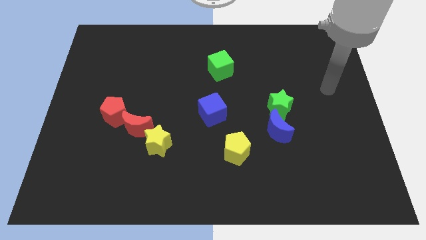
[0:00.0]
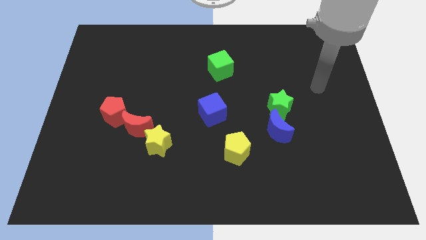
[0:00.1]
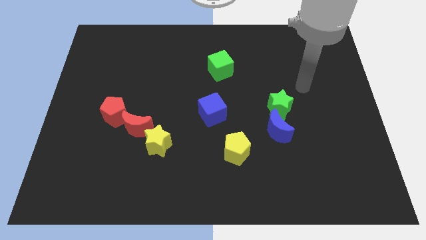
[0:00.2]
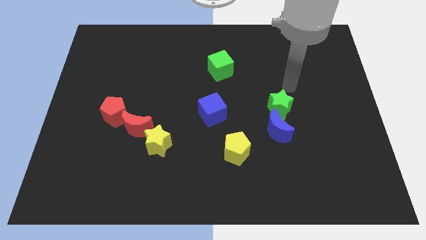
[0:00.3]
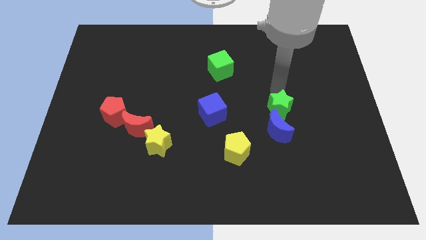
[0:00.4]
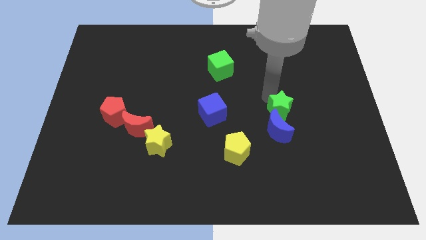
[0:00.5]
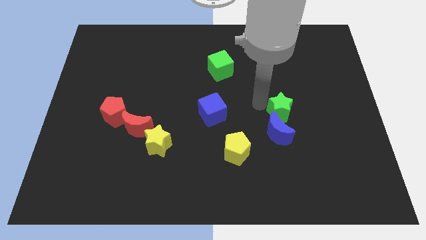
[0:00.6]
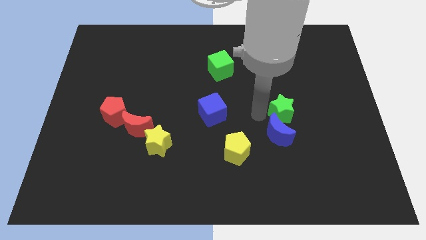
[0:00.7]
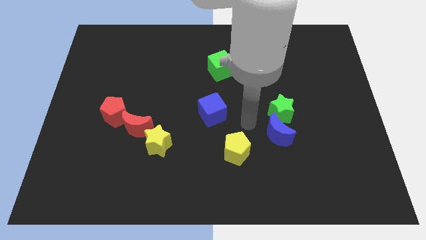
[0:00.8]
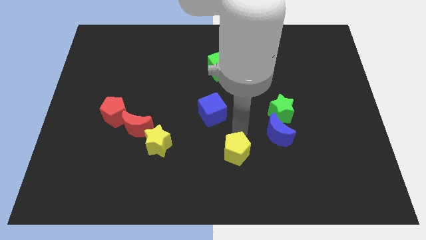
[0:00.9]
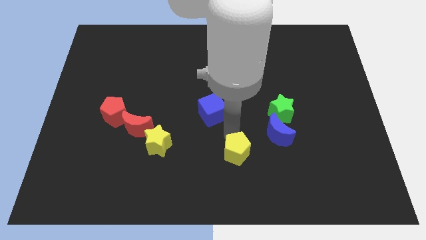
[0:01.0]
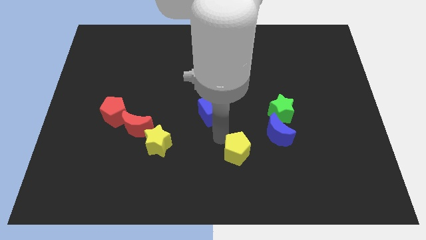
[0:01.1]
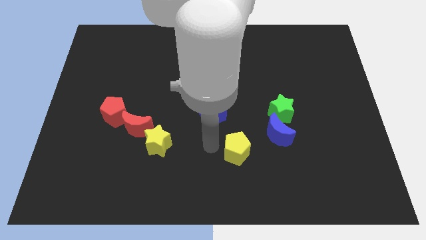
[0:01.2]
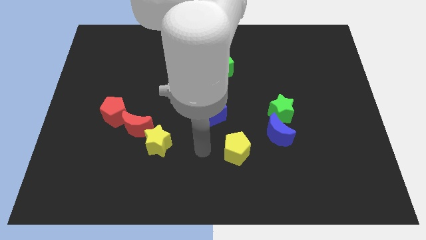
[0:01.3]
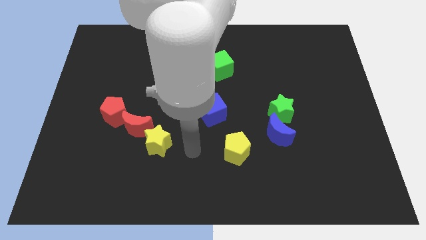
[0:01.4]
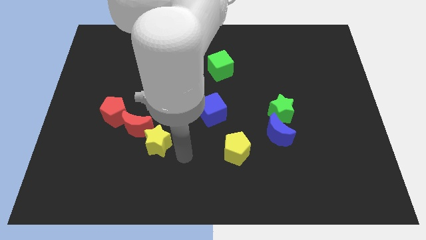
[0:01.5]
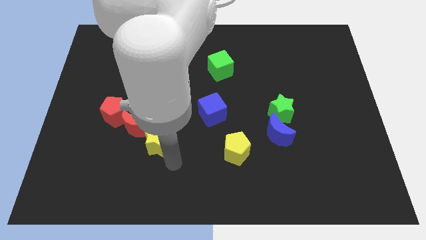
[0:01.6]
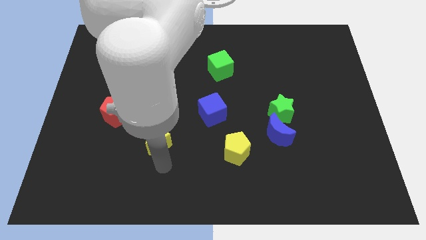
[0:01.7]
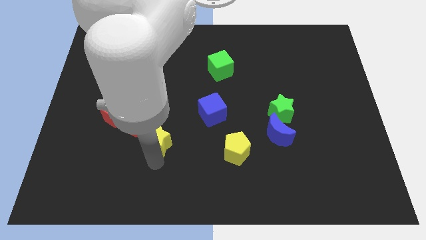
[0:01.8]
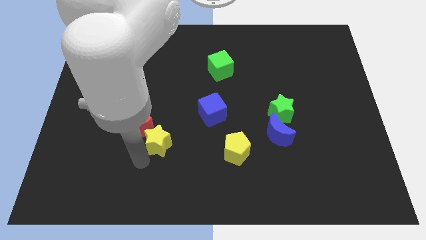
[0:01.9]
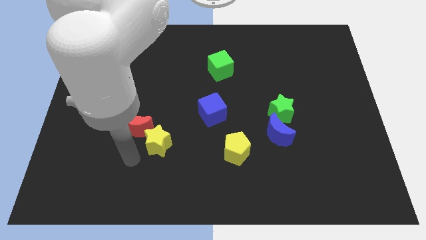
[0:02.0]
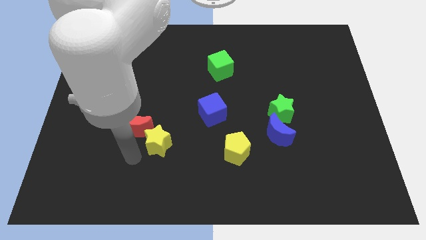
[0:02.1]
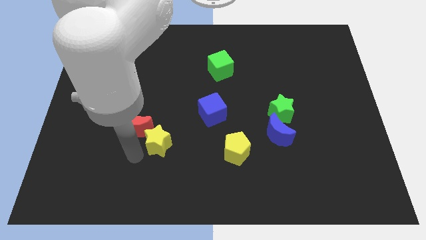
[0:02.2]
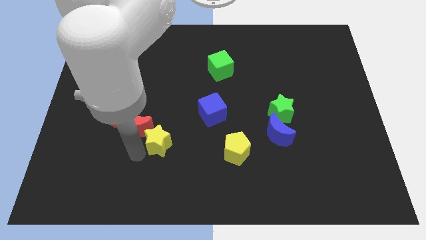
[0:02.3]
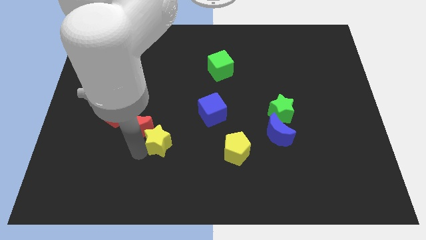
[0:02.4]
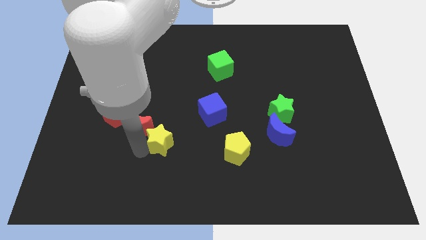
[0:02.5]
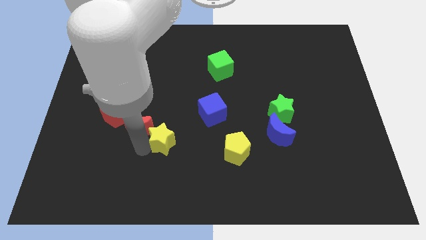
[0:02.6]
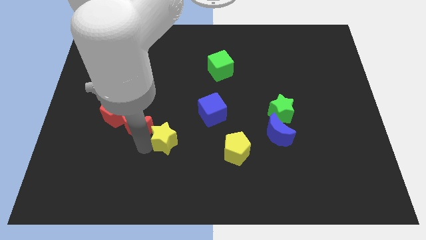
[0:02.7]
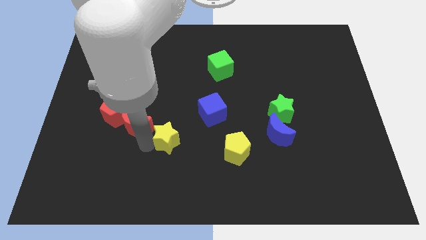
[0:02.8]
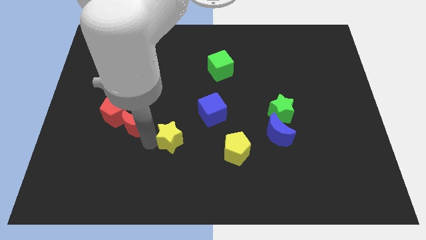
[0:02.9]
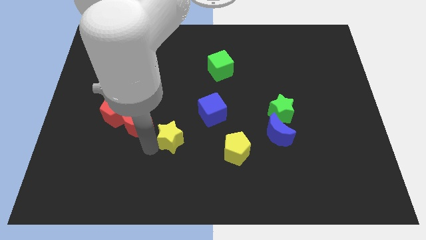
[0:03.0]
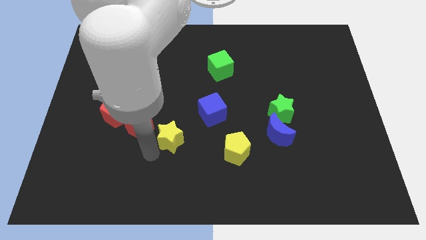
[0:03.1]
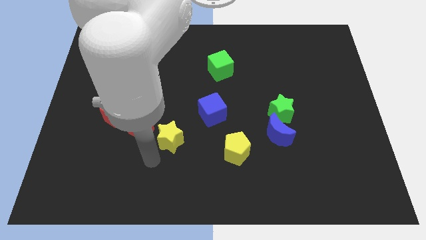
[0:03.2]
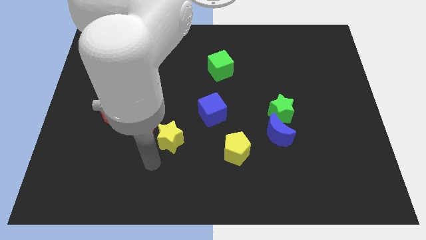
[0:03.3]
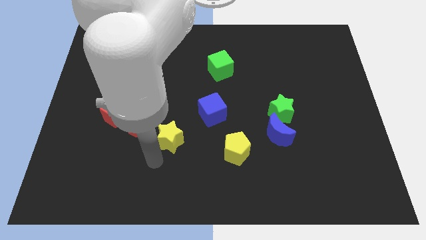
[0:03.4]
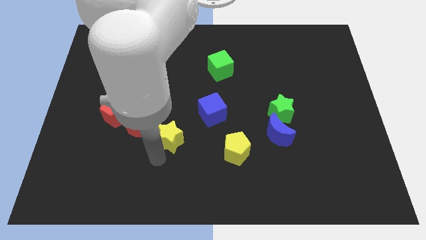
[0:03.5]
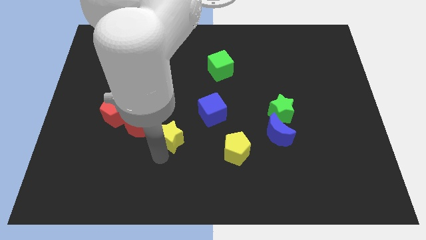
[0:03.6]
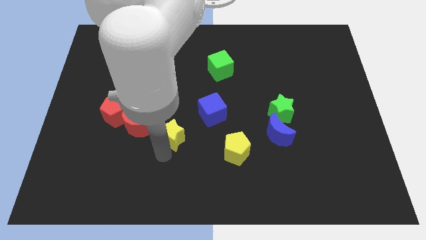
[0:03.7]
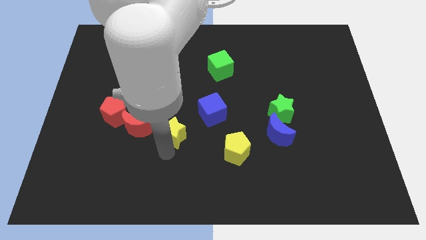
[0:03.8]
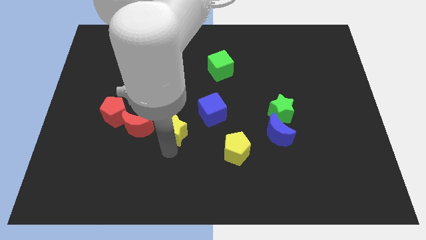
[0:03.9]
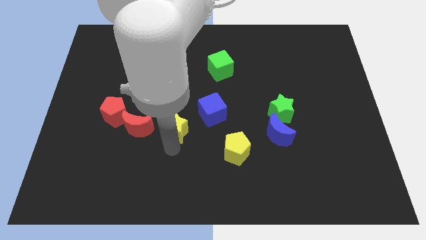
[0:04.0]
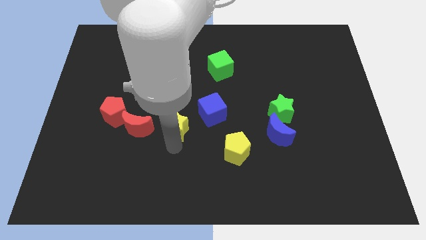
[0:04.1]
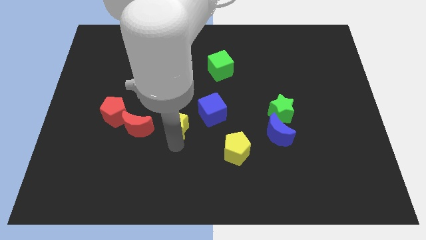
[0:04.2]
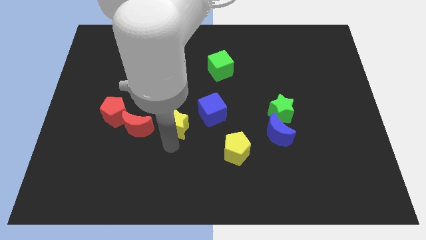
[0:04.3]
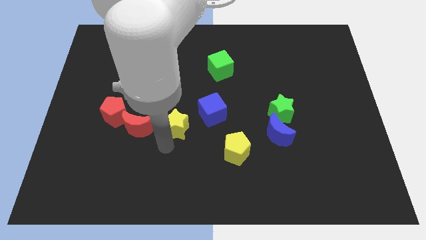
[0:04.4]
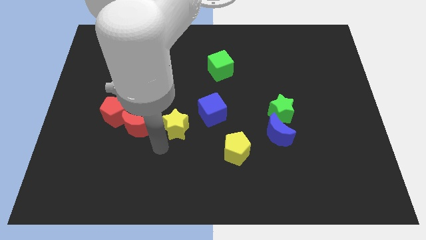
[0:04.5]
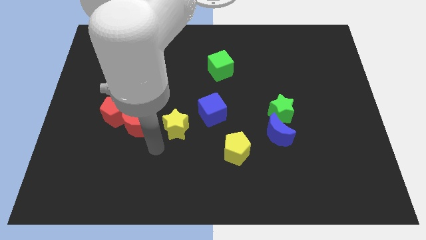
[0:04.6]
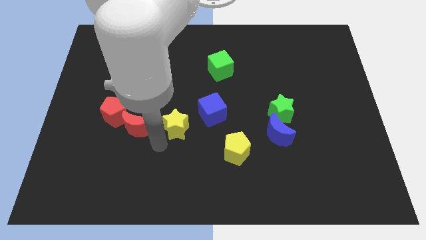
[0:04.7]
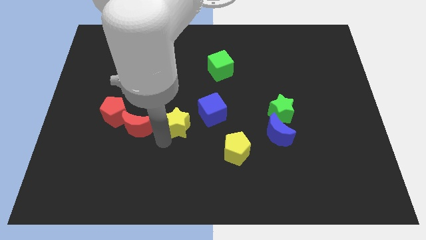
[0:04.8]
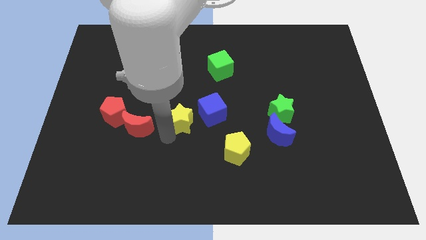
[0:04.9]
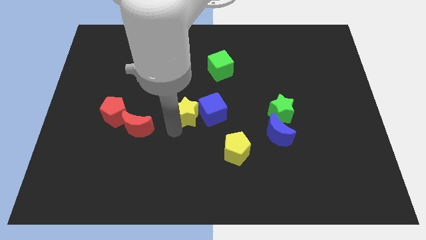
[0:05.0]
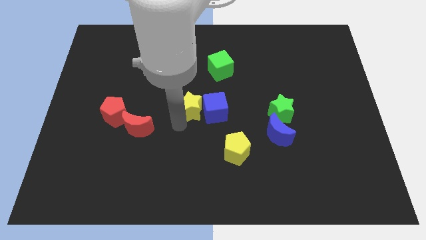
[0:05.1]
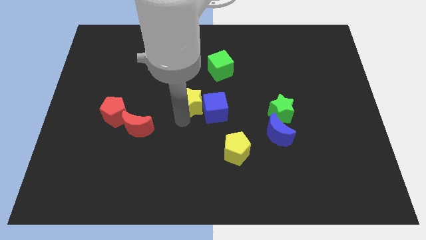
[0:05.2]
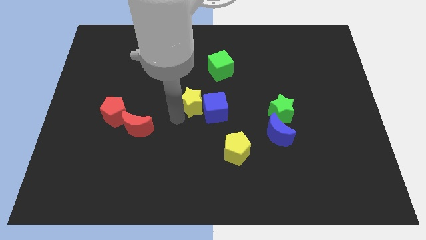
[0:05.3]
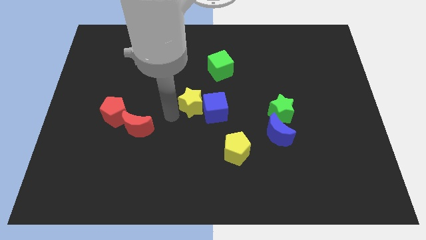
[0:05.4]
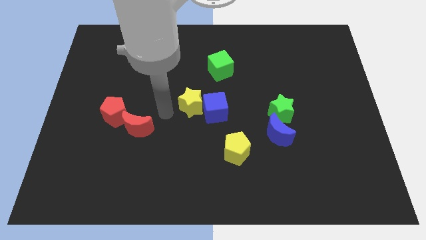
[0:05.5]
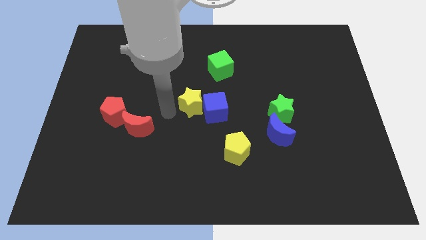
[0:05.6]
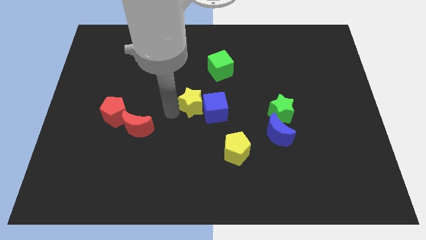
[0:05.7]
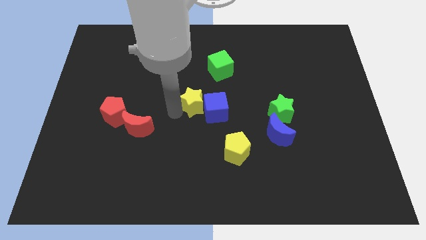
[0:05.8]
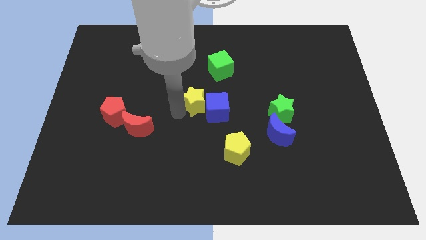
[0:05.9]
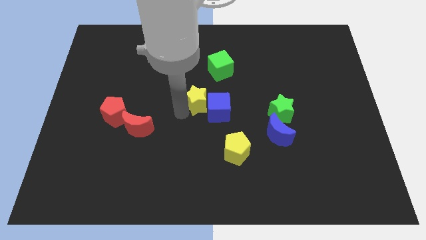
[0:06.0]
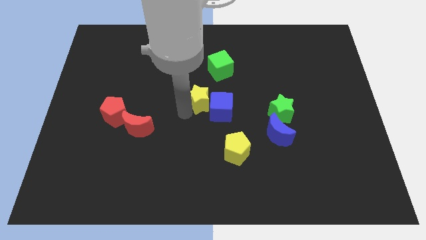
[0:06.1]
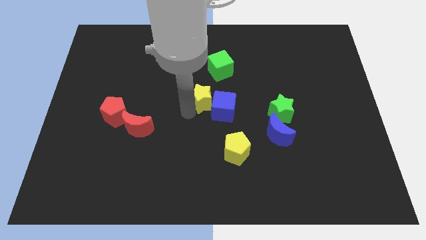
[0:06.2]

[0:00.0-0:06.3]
slide the yellow star to the bottom of the green cube

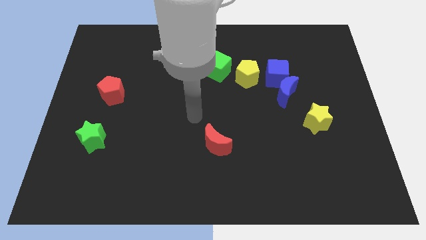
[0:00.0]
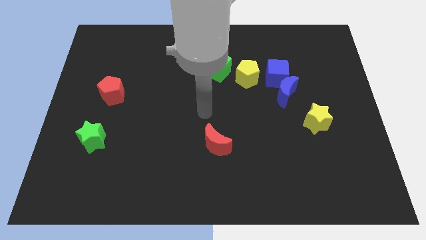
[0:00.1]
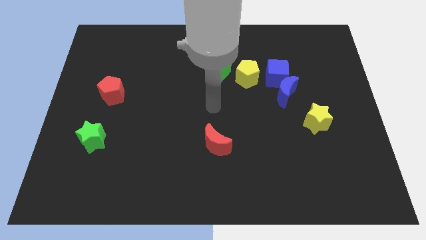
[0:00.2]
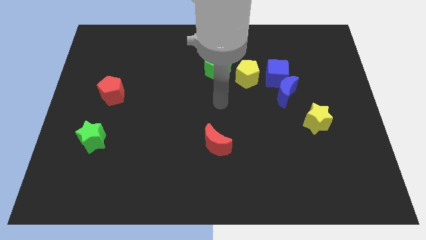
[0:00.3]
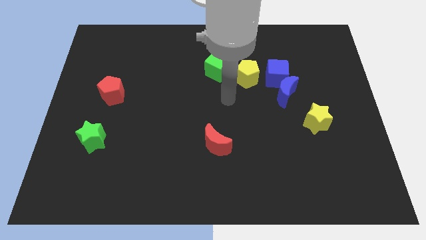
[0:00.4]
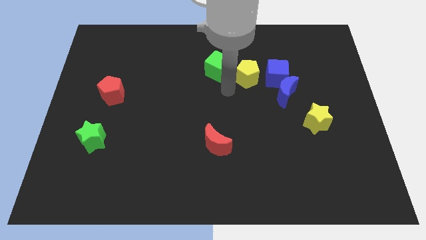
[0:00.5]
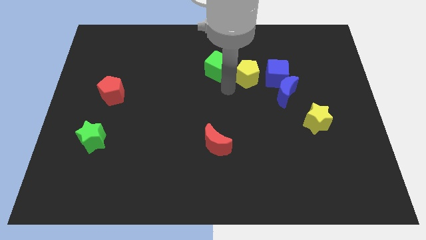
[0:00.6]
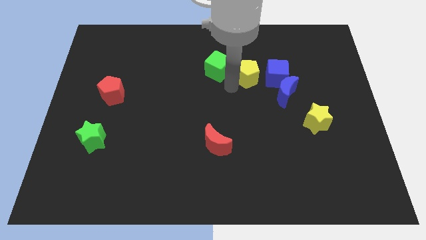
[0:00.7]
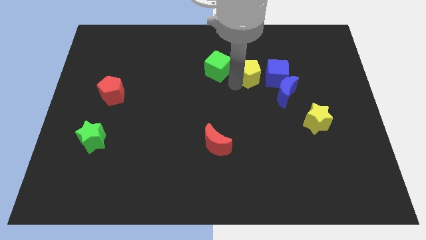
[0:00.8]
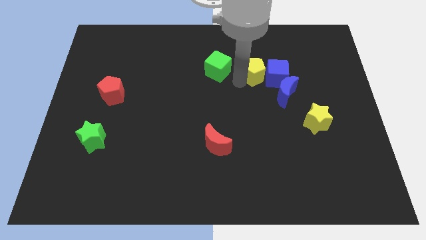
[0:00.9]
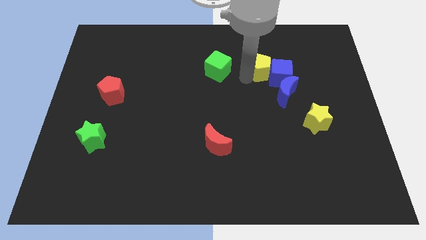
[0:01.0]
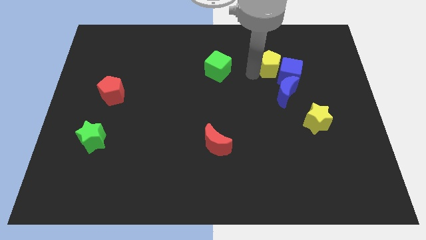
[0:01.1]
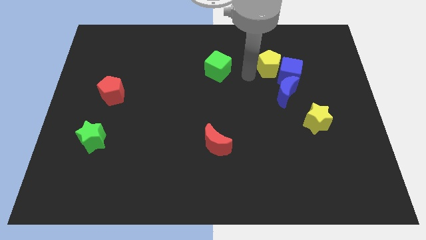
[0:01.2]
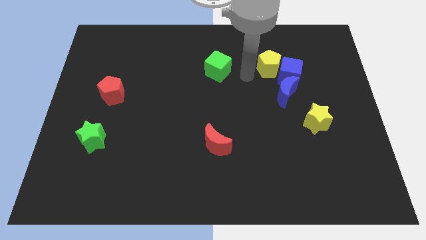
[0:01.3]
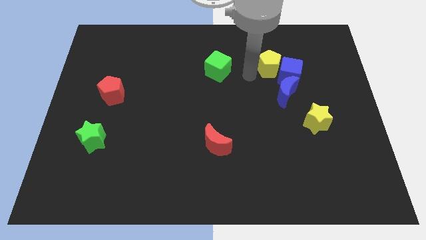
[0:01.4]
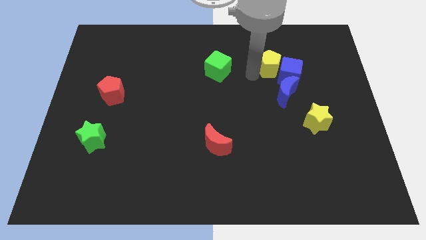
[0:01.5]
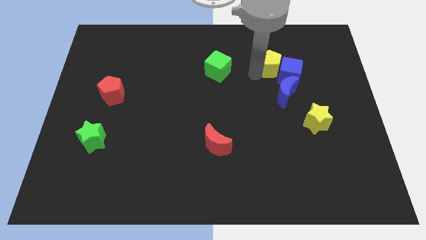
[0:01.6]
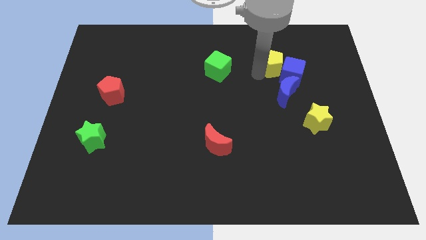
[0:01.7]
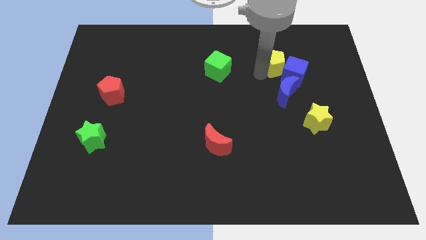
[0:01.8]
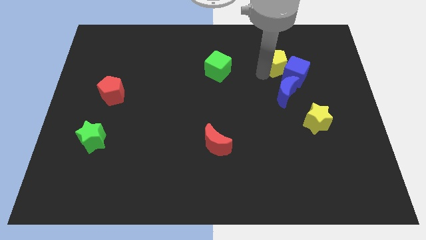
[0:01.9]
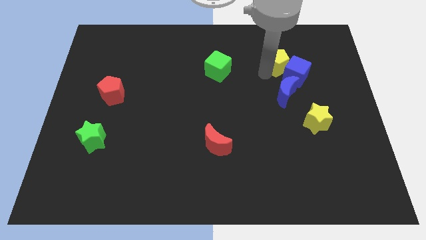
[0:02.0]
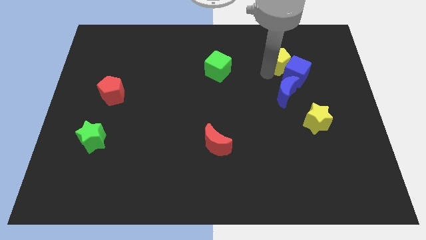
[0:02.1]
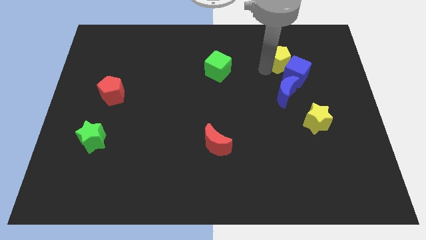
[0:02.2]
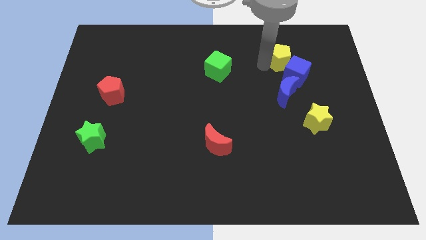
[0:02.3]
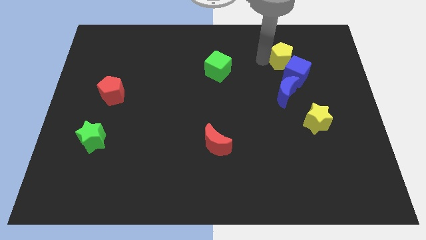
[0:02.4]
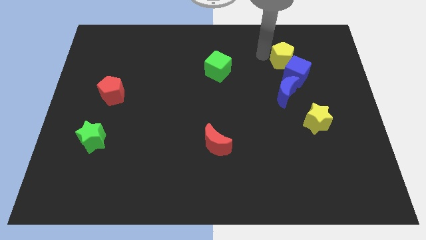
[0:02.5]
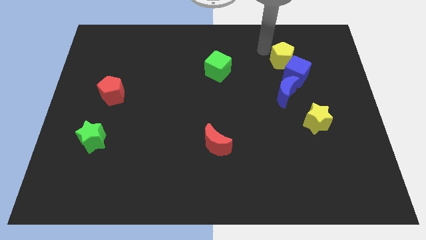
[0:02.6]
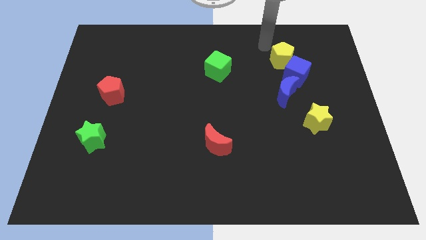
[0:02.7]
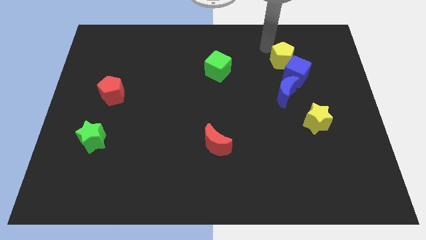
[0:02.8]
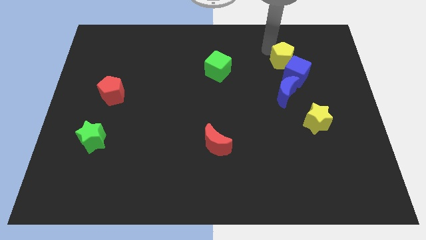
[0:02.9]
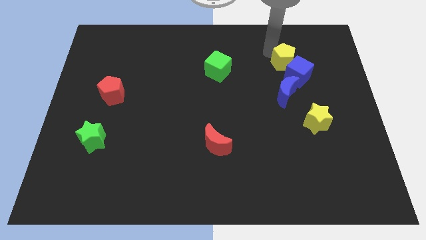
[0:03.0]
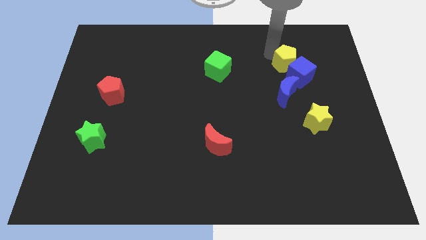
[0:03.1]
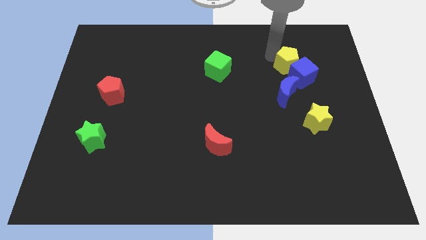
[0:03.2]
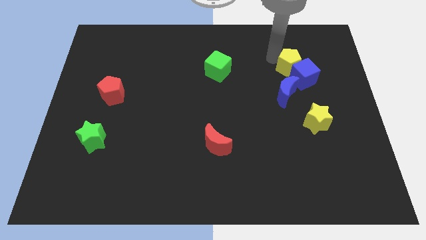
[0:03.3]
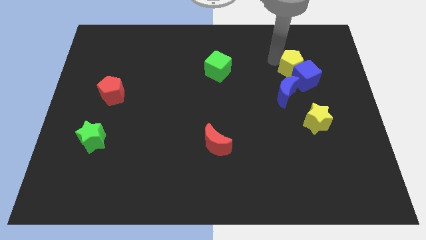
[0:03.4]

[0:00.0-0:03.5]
move the yellow pentagon to the top right of the blue moon
